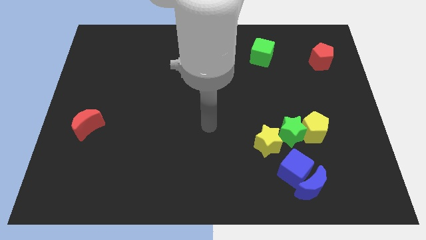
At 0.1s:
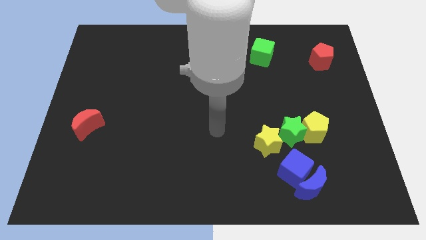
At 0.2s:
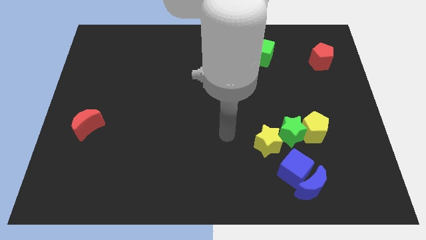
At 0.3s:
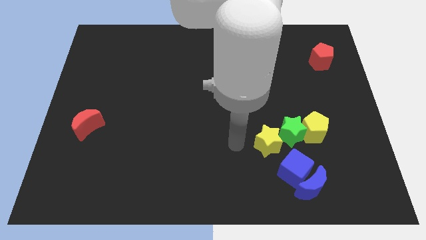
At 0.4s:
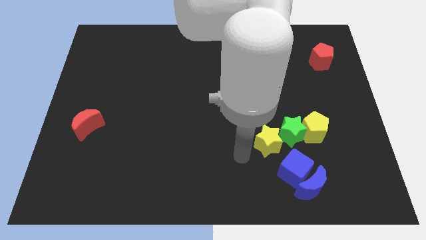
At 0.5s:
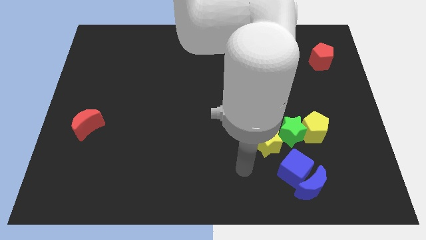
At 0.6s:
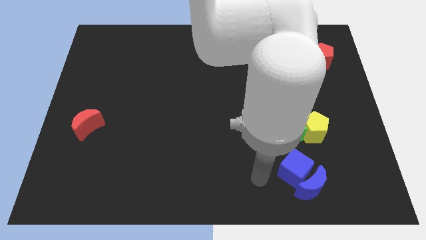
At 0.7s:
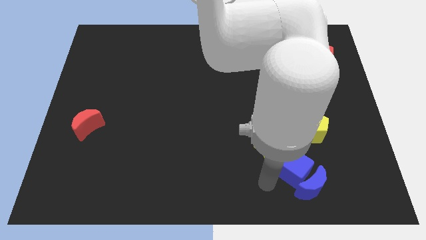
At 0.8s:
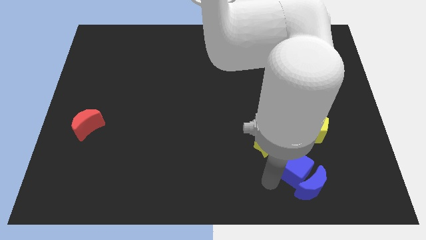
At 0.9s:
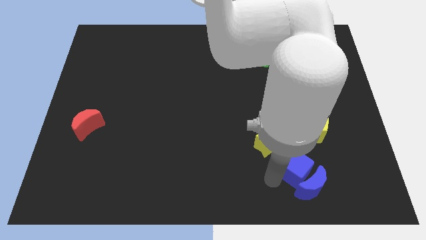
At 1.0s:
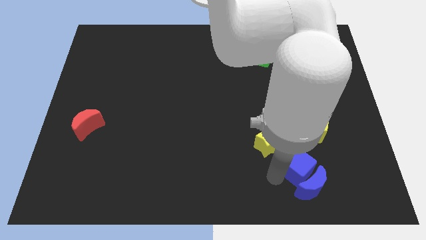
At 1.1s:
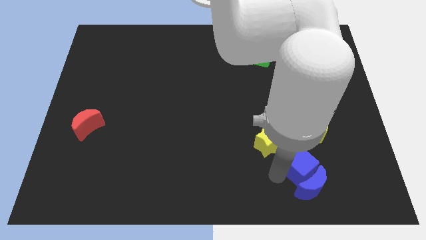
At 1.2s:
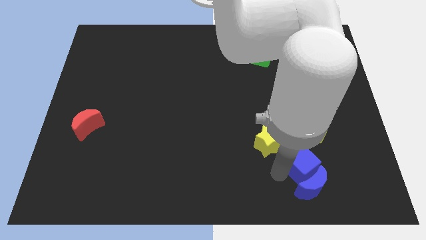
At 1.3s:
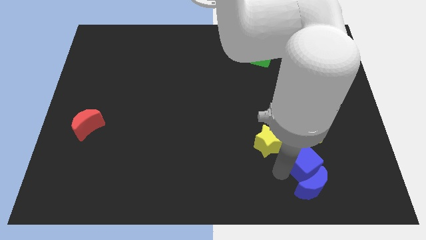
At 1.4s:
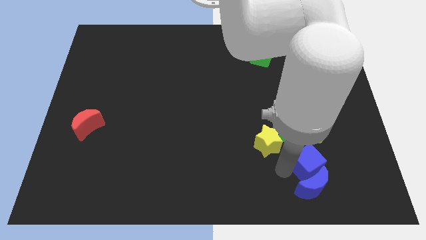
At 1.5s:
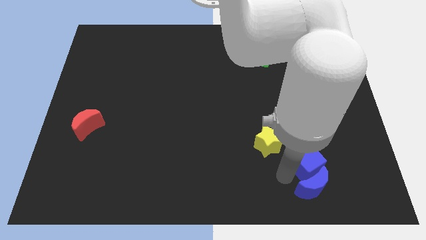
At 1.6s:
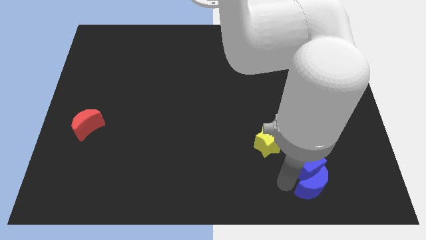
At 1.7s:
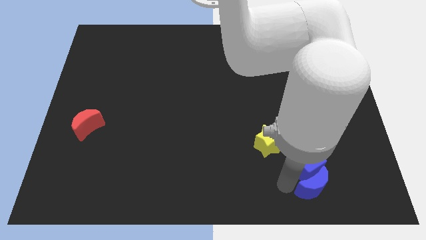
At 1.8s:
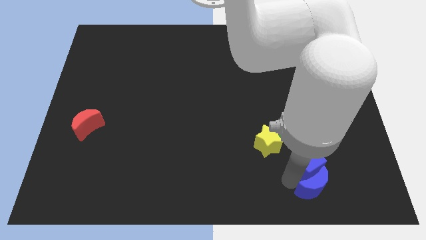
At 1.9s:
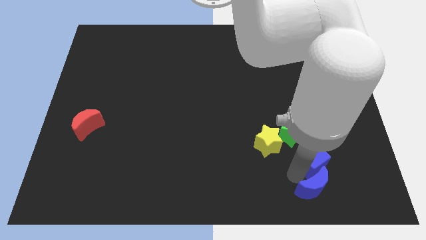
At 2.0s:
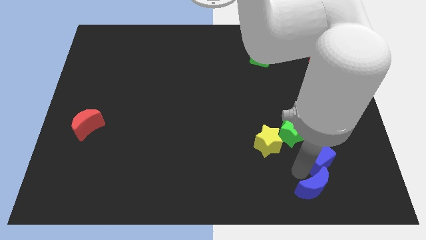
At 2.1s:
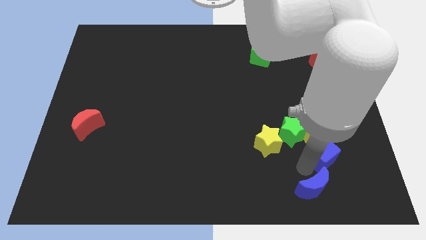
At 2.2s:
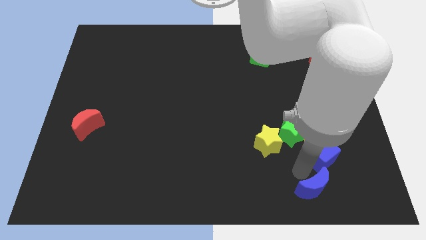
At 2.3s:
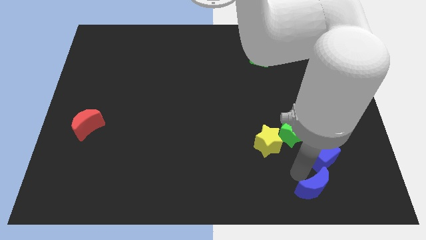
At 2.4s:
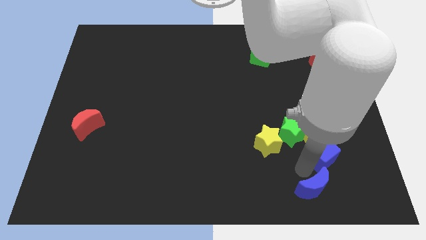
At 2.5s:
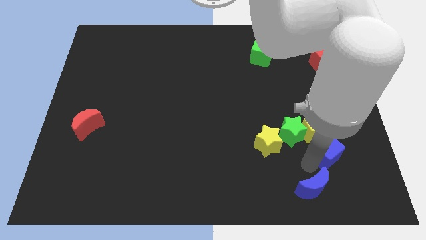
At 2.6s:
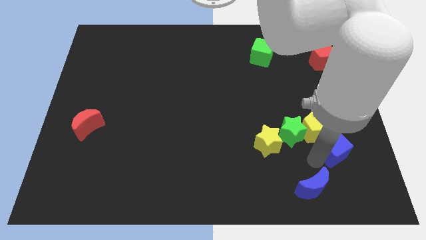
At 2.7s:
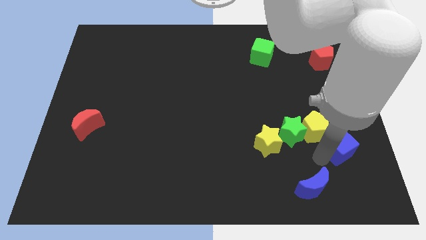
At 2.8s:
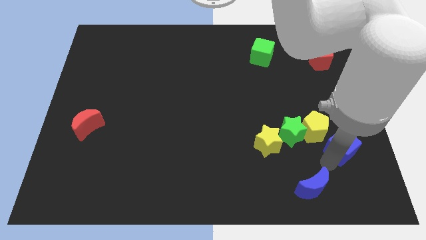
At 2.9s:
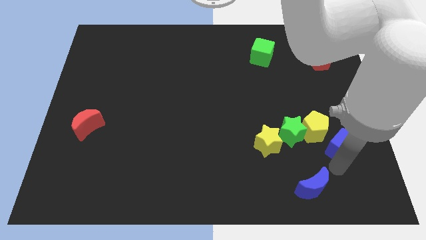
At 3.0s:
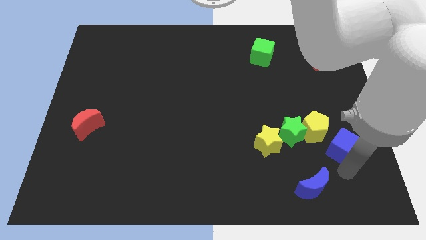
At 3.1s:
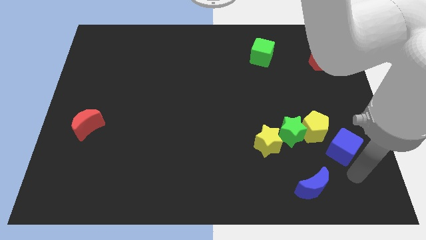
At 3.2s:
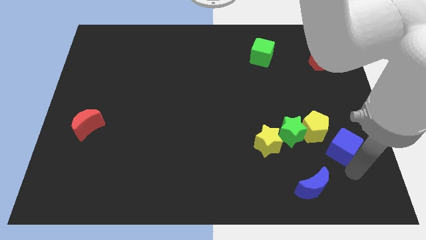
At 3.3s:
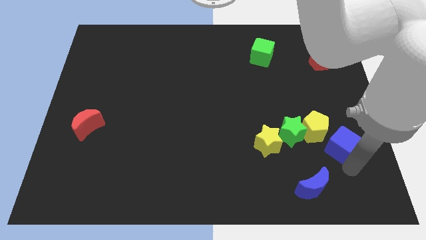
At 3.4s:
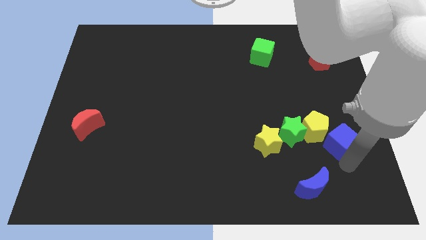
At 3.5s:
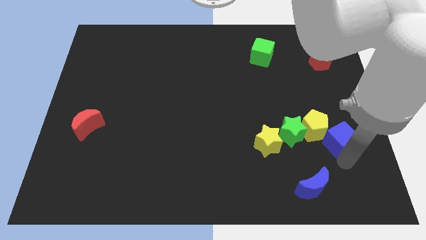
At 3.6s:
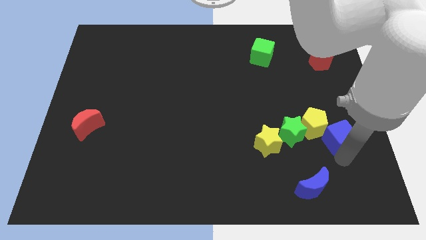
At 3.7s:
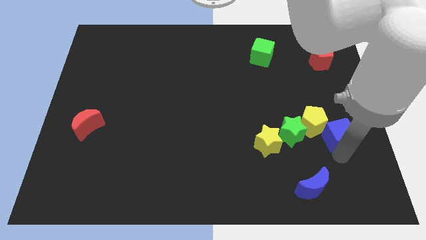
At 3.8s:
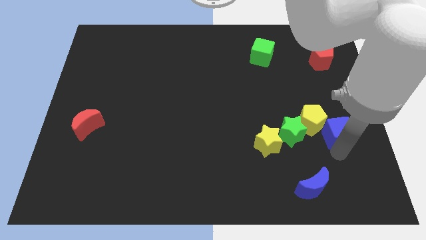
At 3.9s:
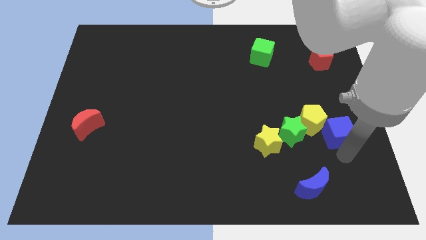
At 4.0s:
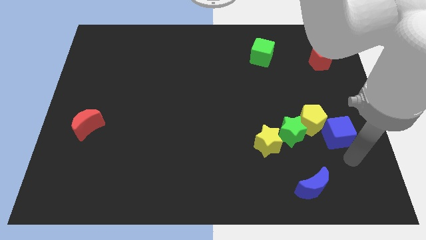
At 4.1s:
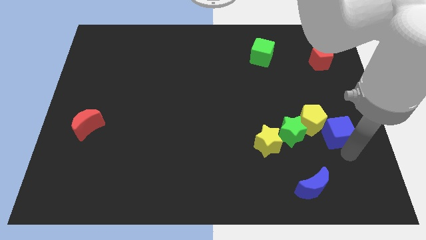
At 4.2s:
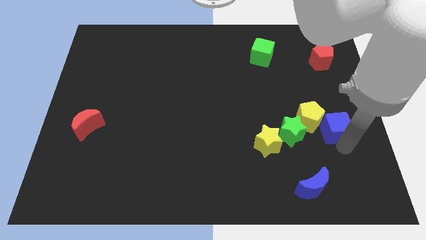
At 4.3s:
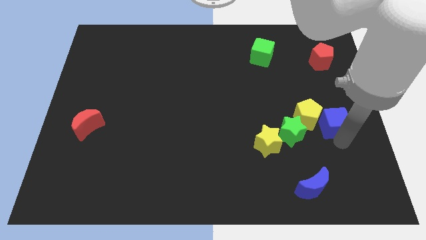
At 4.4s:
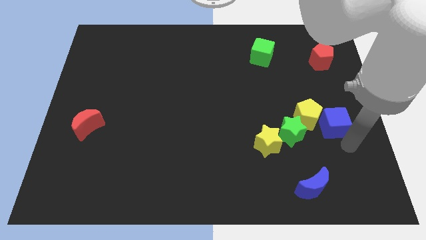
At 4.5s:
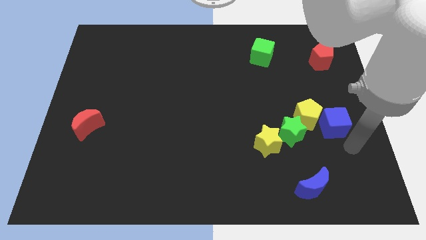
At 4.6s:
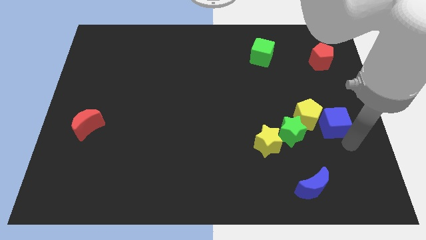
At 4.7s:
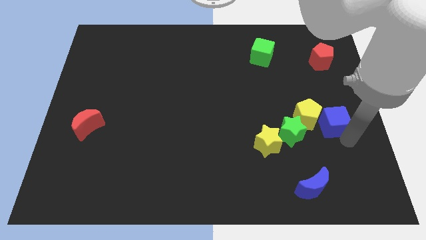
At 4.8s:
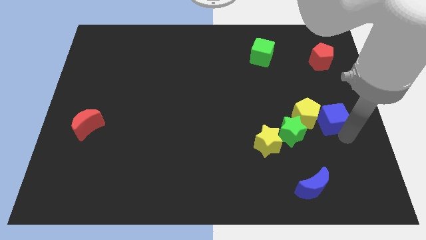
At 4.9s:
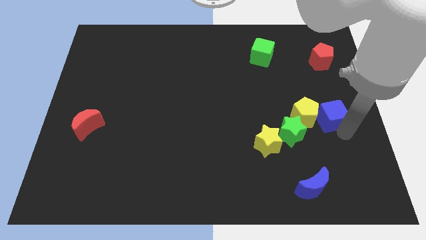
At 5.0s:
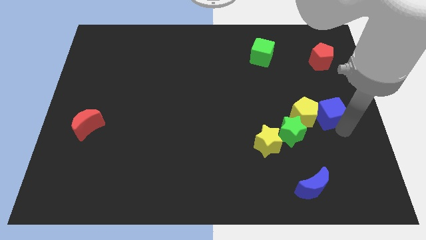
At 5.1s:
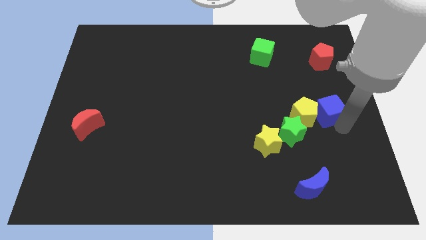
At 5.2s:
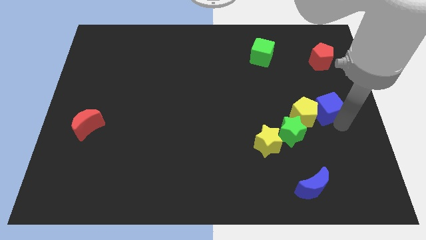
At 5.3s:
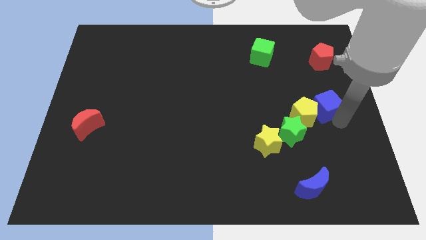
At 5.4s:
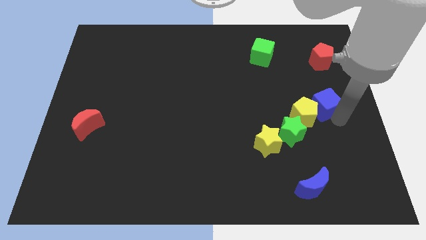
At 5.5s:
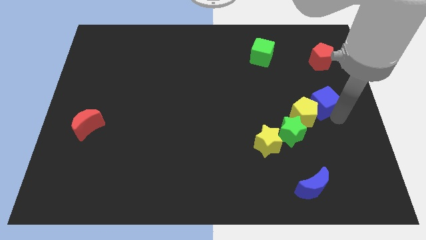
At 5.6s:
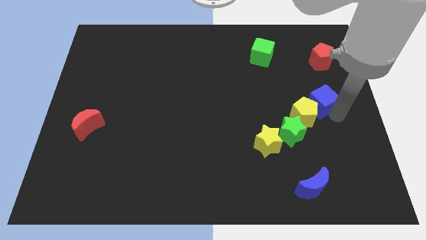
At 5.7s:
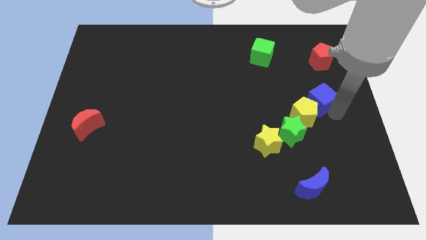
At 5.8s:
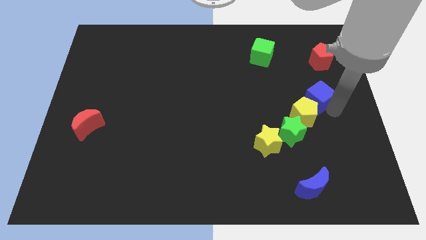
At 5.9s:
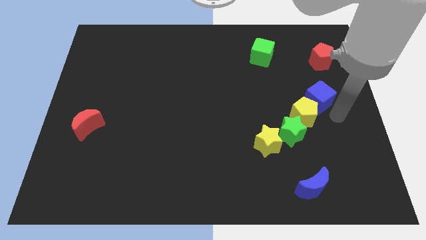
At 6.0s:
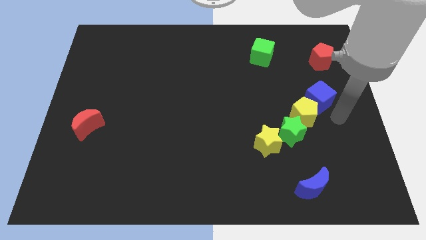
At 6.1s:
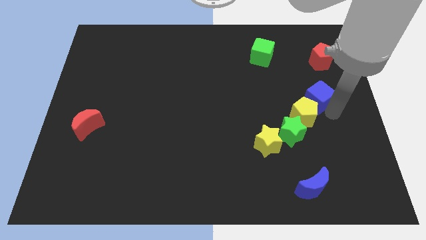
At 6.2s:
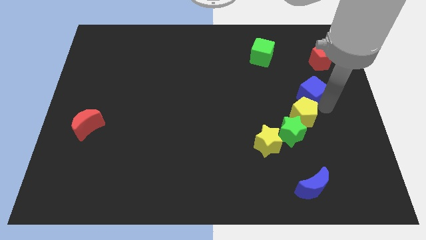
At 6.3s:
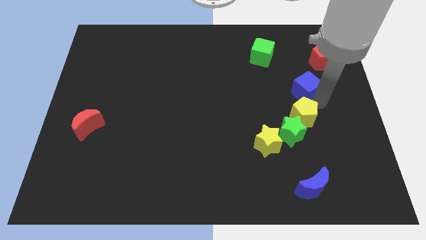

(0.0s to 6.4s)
slide the blue cube upwards

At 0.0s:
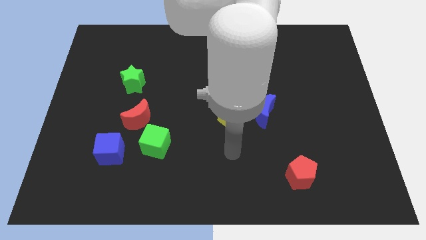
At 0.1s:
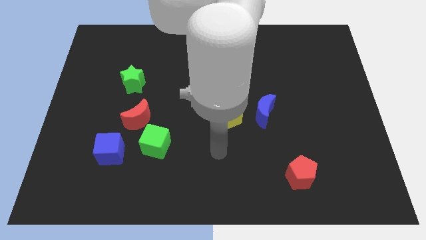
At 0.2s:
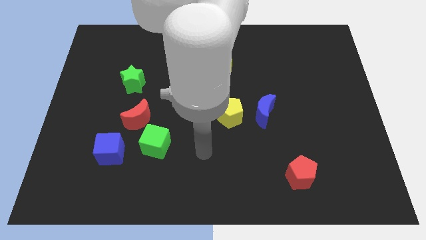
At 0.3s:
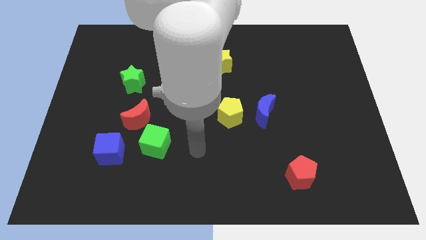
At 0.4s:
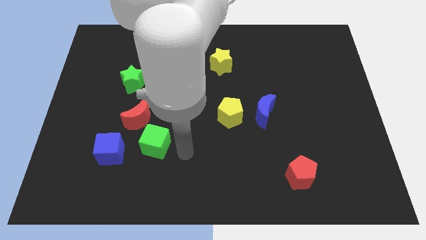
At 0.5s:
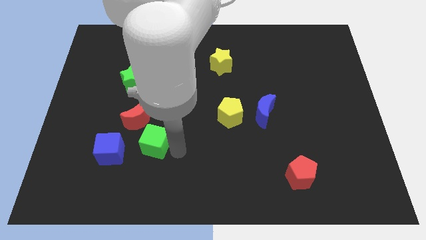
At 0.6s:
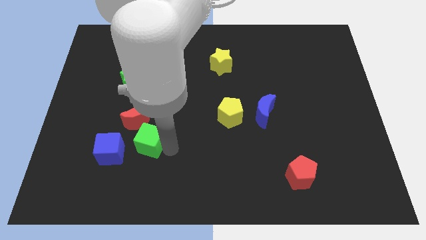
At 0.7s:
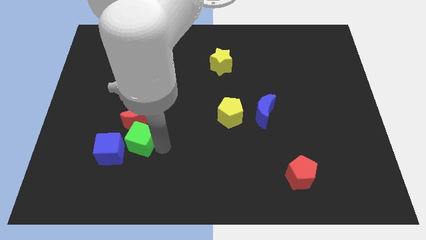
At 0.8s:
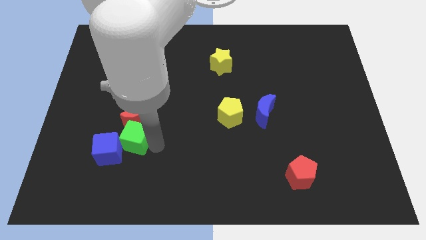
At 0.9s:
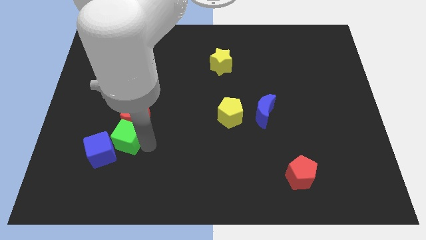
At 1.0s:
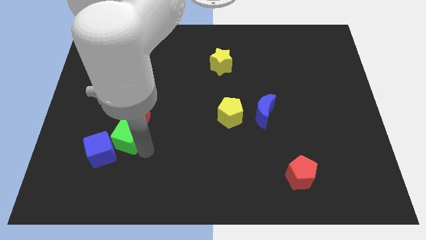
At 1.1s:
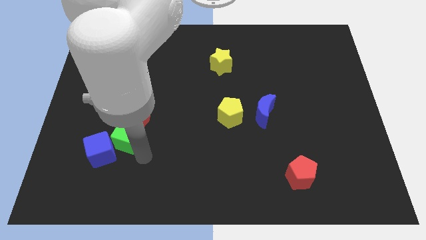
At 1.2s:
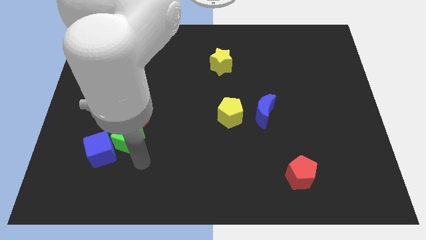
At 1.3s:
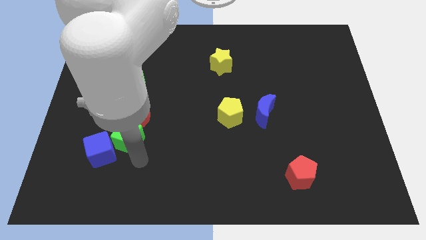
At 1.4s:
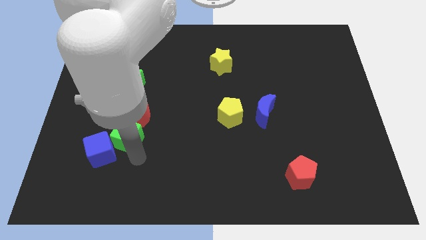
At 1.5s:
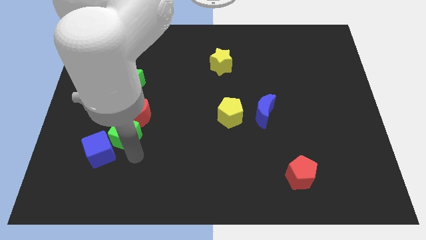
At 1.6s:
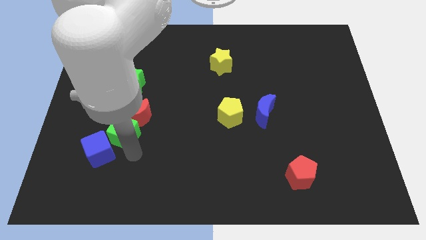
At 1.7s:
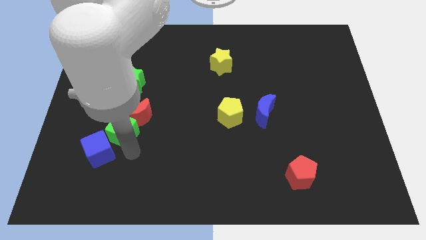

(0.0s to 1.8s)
move the green cube a little upwards and then left
